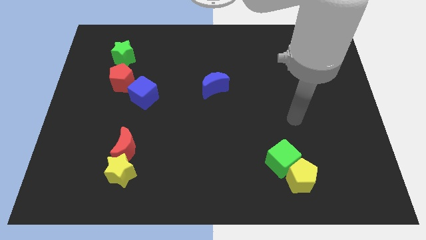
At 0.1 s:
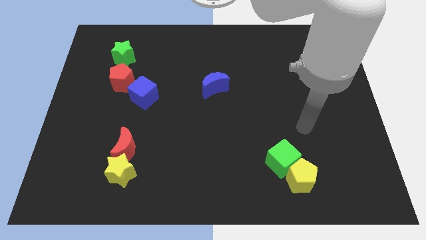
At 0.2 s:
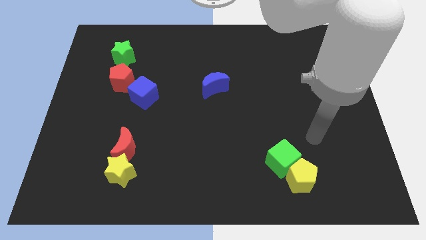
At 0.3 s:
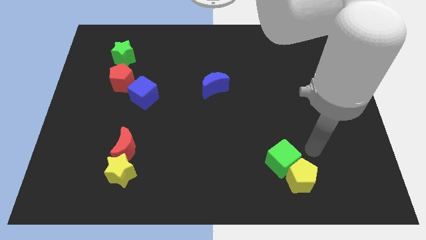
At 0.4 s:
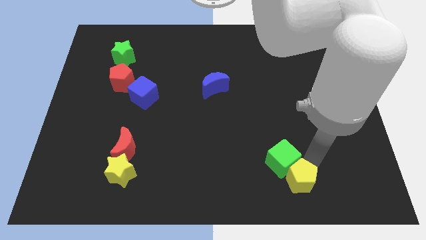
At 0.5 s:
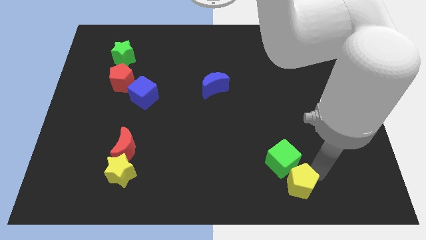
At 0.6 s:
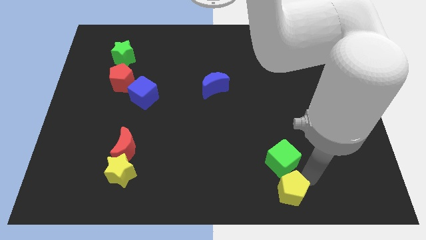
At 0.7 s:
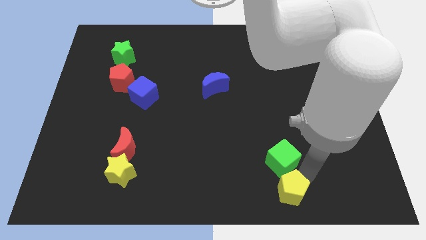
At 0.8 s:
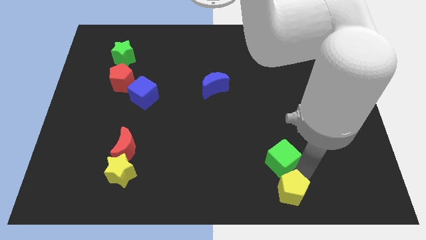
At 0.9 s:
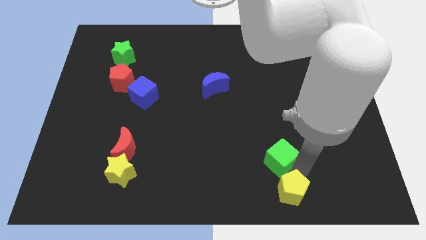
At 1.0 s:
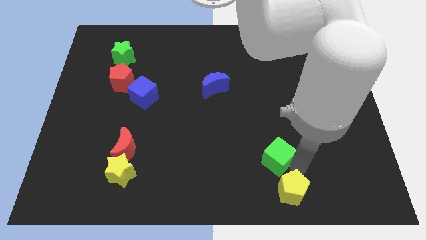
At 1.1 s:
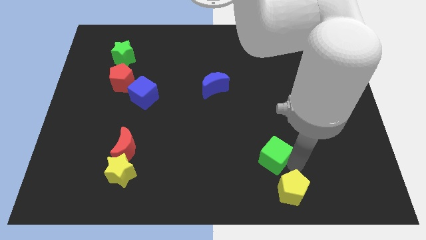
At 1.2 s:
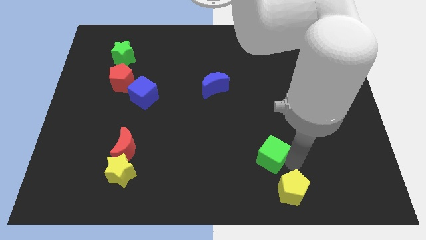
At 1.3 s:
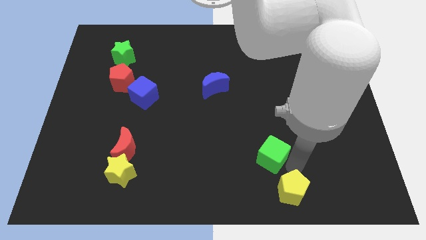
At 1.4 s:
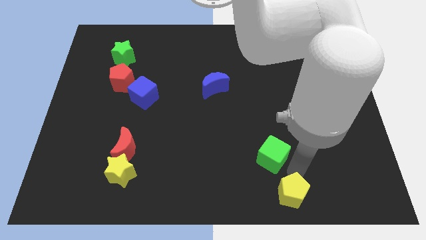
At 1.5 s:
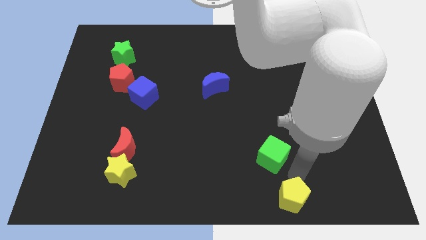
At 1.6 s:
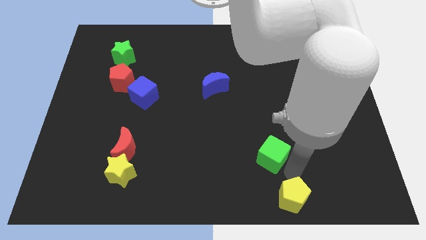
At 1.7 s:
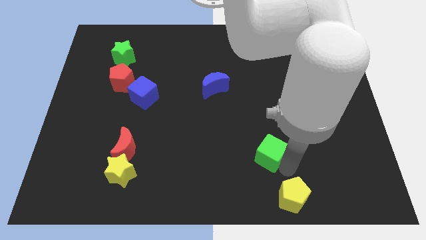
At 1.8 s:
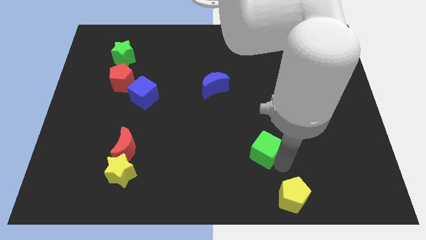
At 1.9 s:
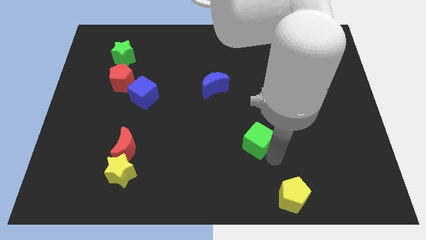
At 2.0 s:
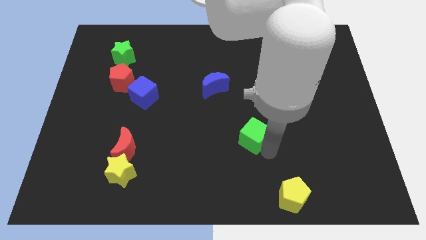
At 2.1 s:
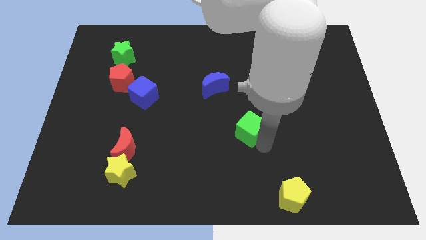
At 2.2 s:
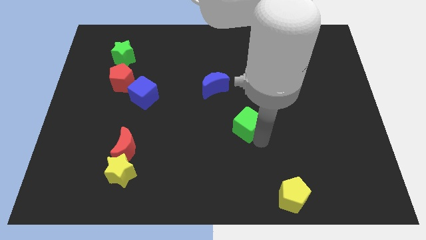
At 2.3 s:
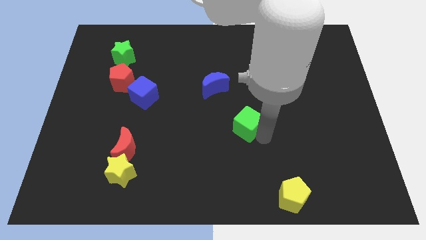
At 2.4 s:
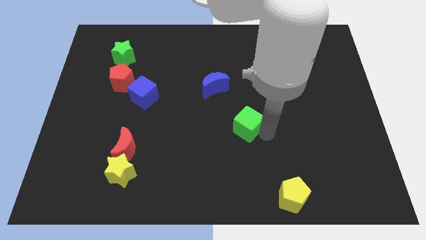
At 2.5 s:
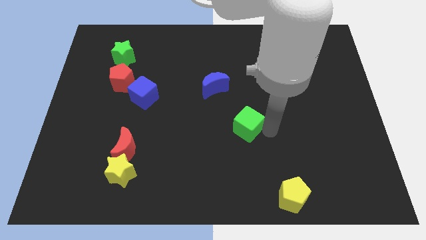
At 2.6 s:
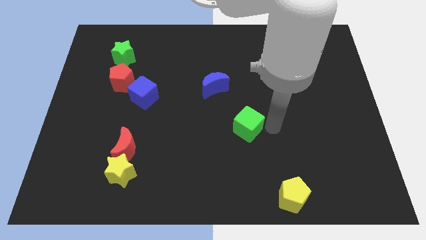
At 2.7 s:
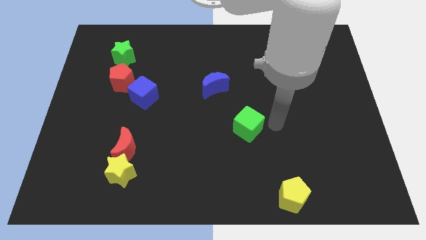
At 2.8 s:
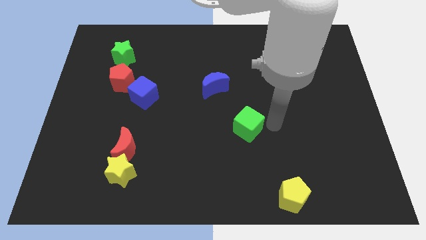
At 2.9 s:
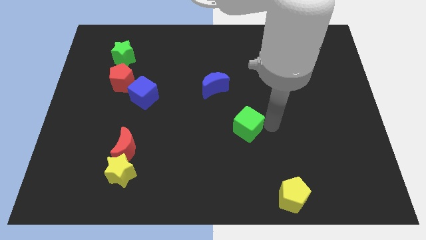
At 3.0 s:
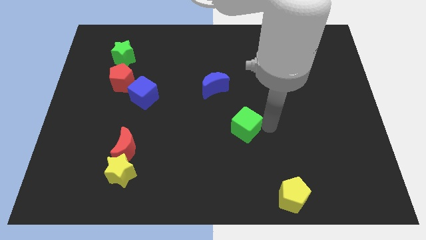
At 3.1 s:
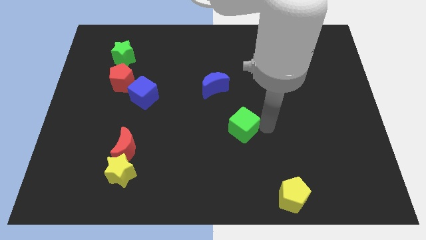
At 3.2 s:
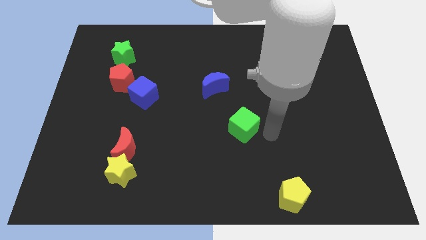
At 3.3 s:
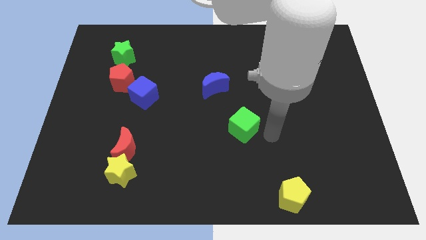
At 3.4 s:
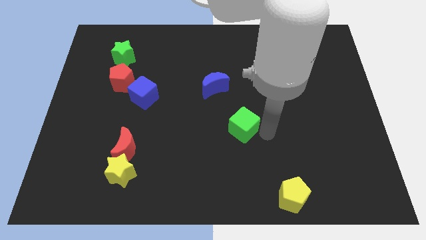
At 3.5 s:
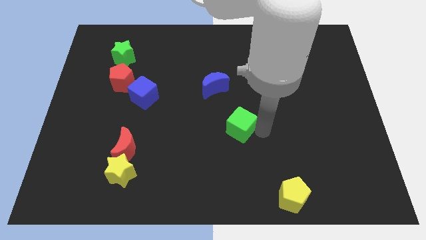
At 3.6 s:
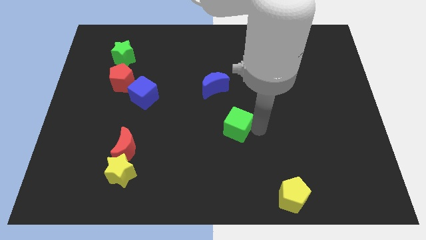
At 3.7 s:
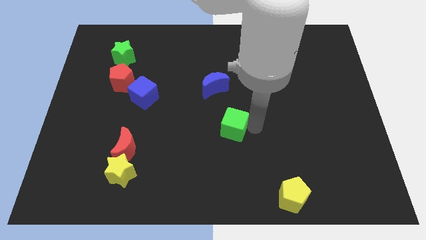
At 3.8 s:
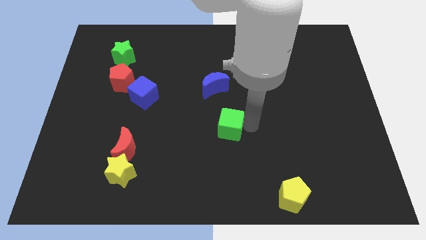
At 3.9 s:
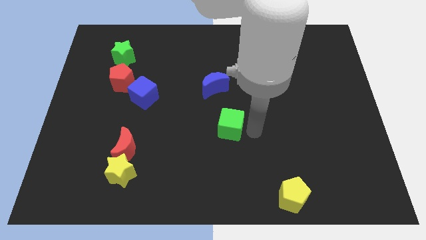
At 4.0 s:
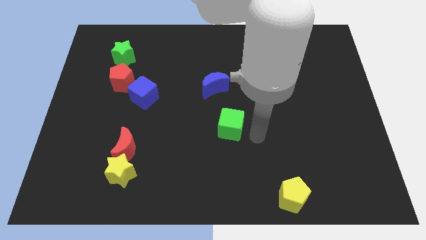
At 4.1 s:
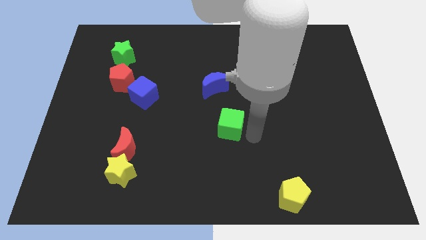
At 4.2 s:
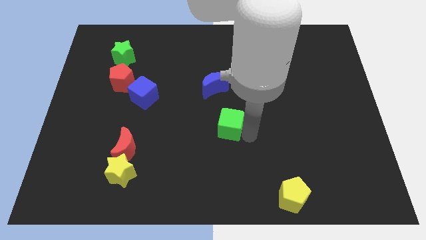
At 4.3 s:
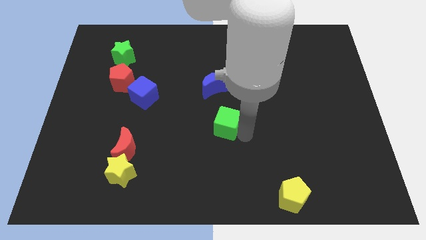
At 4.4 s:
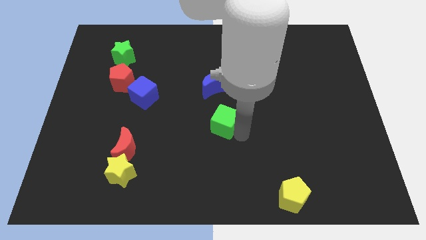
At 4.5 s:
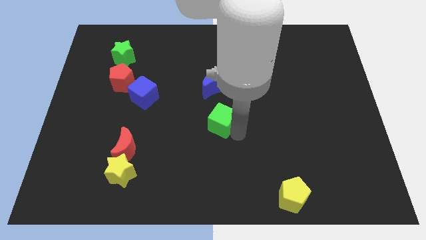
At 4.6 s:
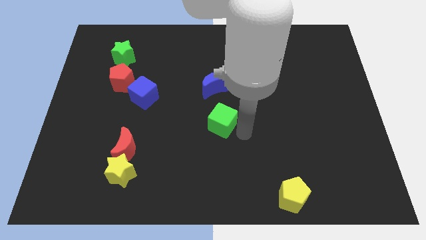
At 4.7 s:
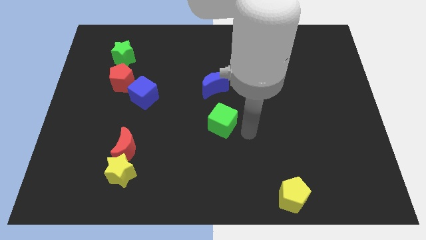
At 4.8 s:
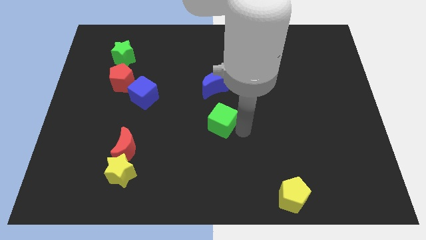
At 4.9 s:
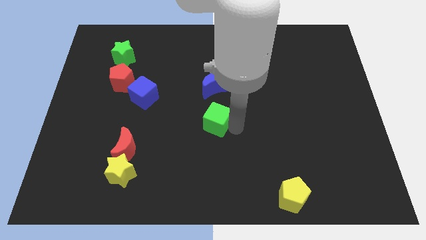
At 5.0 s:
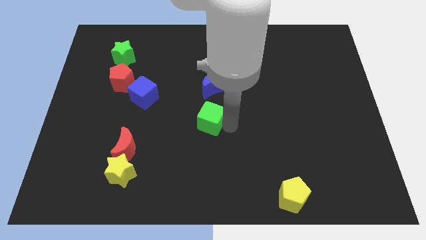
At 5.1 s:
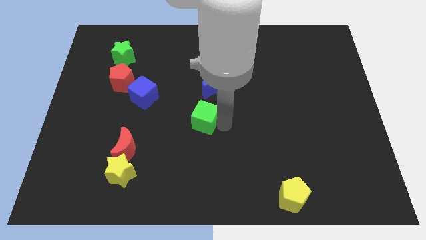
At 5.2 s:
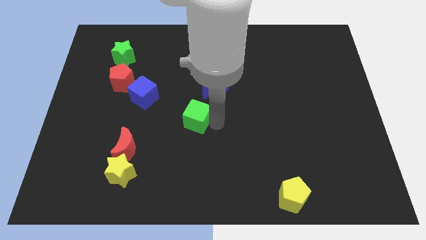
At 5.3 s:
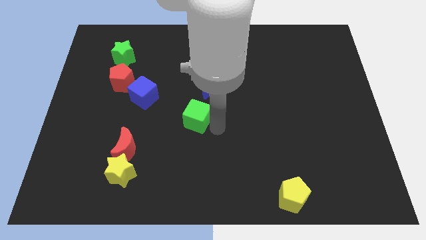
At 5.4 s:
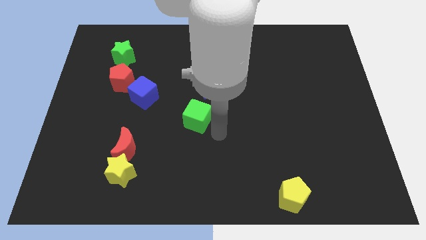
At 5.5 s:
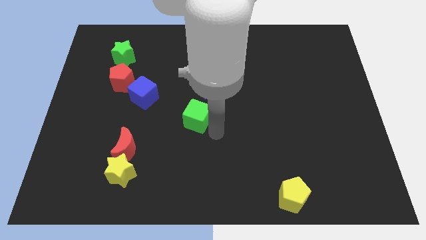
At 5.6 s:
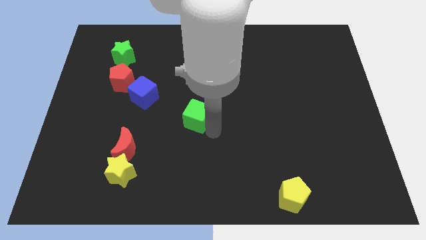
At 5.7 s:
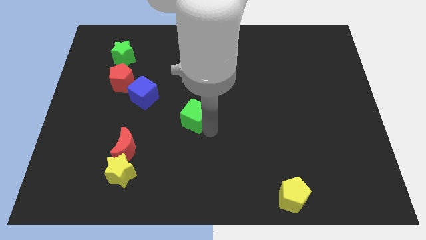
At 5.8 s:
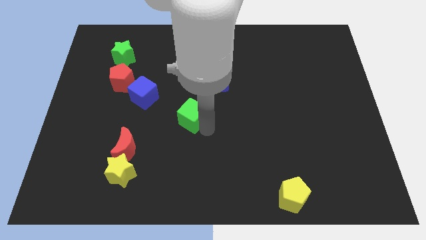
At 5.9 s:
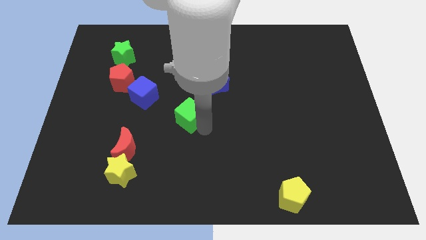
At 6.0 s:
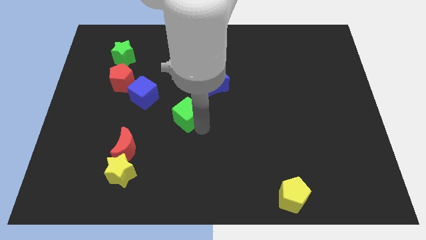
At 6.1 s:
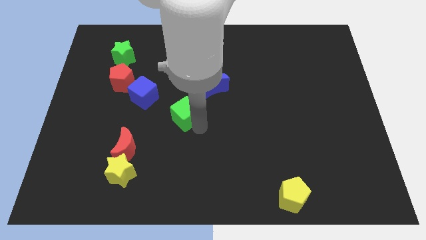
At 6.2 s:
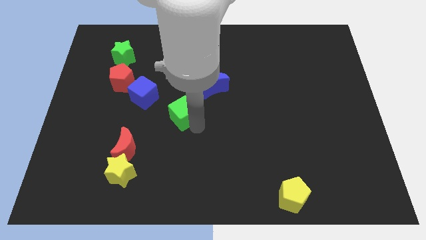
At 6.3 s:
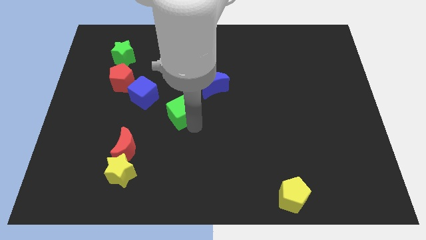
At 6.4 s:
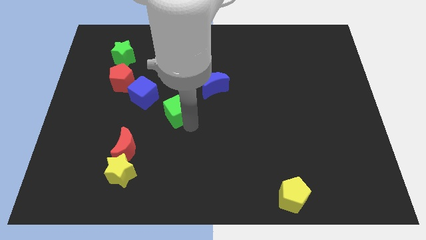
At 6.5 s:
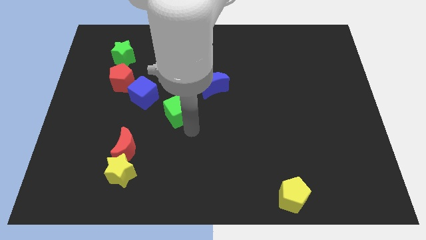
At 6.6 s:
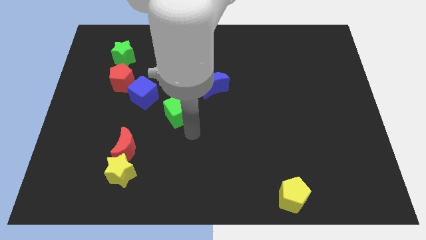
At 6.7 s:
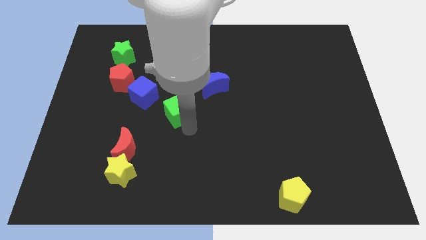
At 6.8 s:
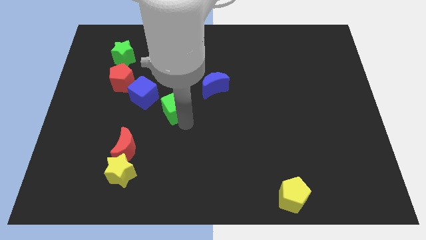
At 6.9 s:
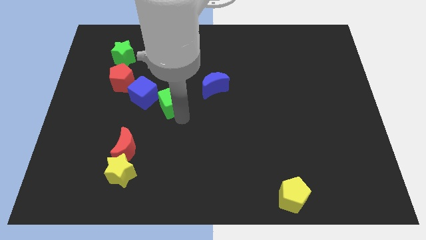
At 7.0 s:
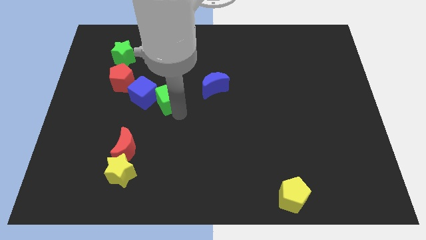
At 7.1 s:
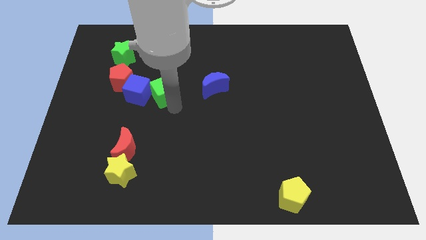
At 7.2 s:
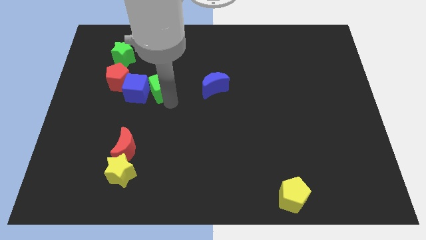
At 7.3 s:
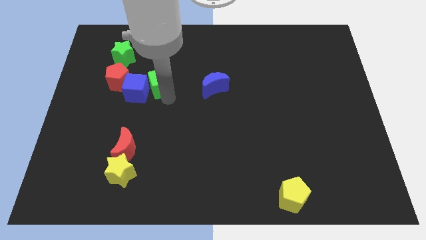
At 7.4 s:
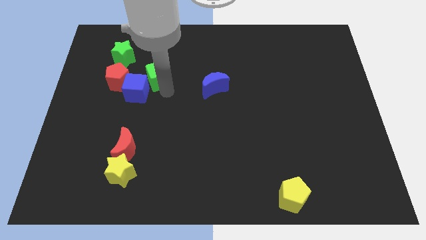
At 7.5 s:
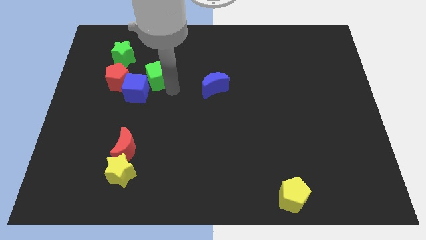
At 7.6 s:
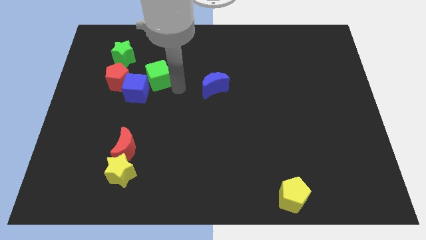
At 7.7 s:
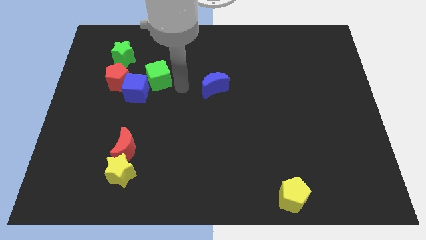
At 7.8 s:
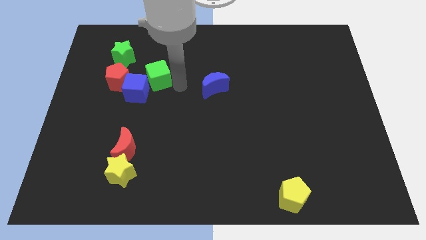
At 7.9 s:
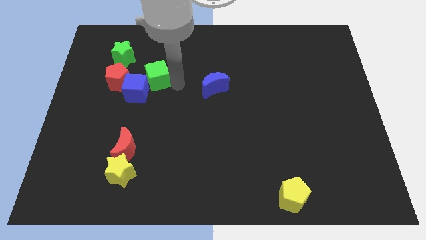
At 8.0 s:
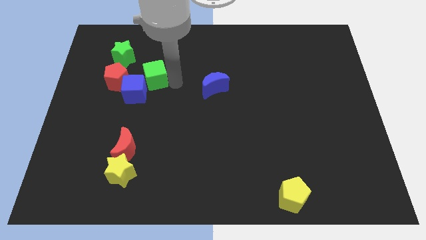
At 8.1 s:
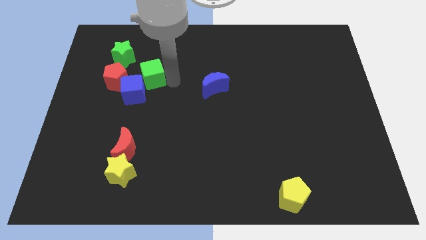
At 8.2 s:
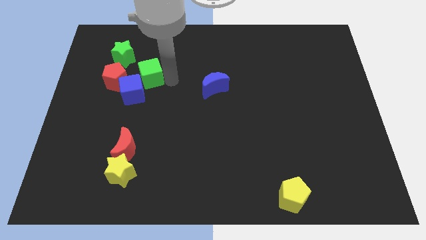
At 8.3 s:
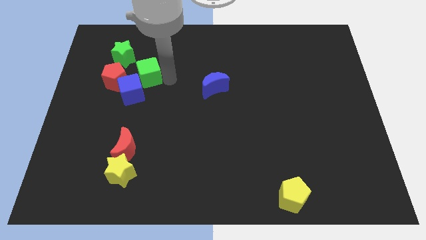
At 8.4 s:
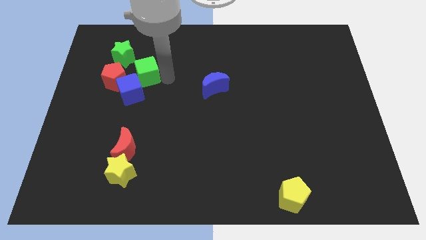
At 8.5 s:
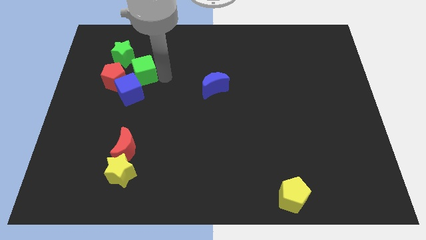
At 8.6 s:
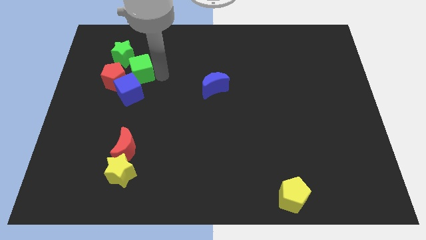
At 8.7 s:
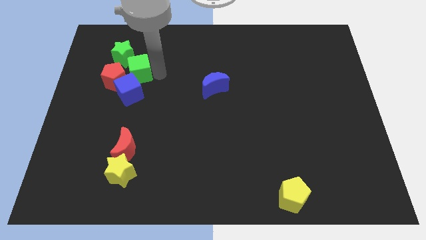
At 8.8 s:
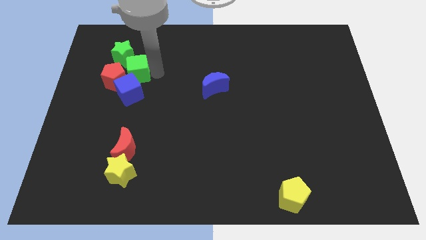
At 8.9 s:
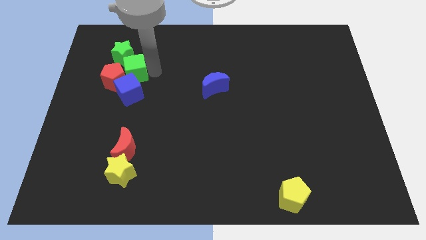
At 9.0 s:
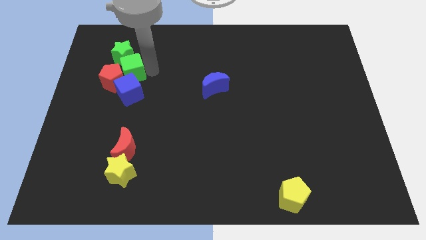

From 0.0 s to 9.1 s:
slide the green cube to the green star
